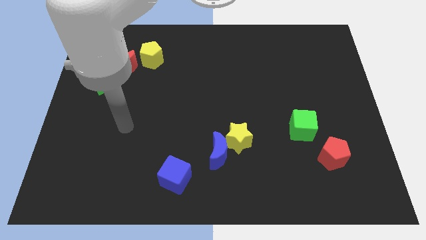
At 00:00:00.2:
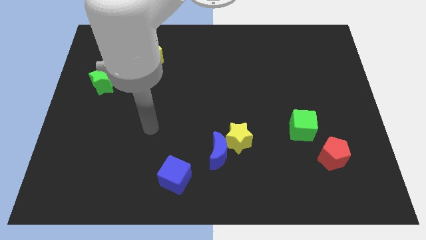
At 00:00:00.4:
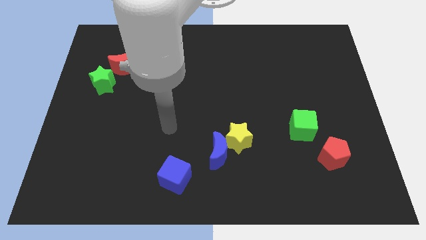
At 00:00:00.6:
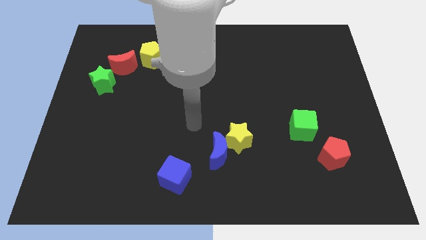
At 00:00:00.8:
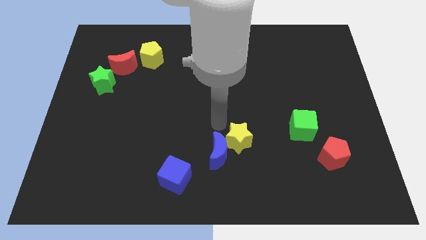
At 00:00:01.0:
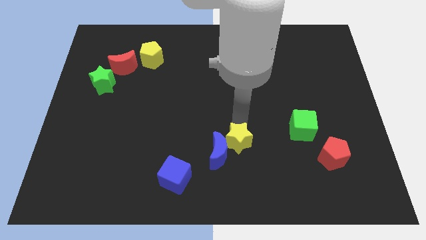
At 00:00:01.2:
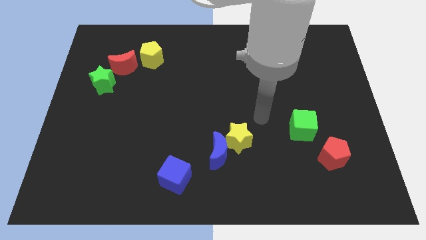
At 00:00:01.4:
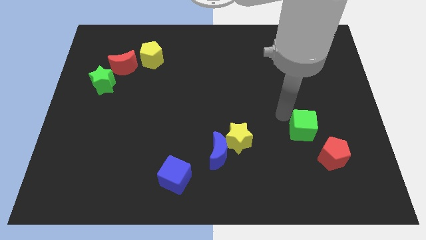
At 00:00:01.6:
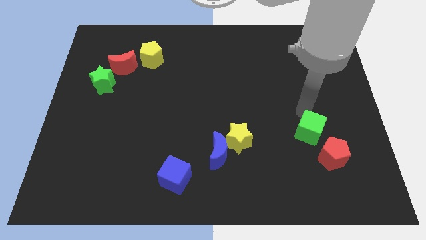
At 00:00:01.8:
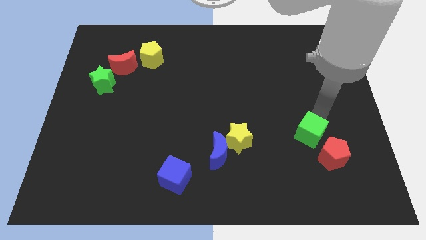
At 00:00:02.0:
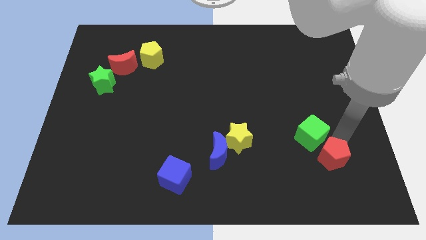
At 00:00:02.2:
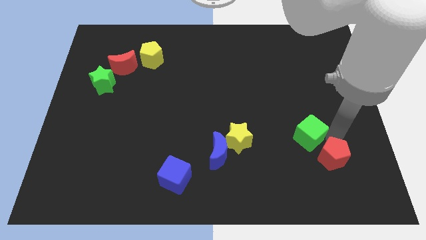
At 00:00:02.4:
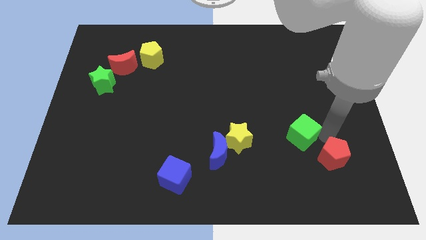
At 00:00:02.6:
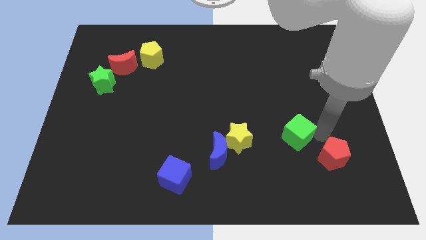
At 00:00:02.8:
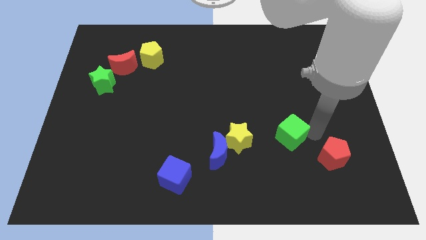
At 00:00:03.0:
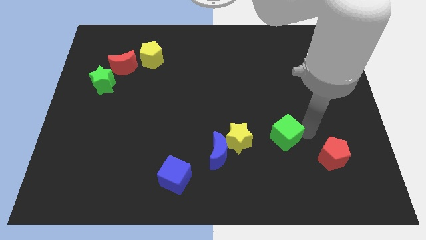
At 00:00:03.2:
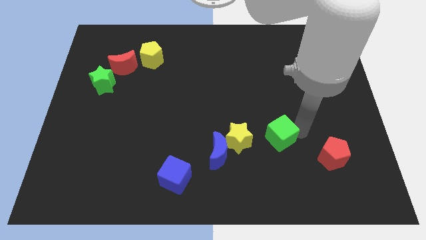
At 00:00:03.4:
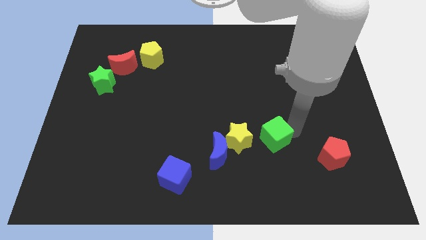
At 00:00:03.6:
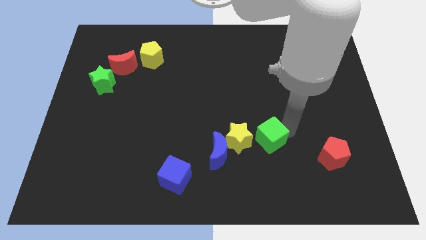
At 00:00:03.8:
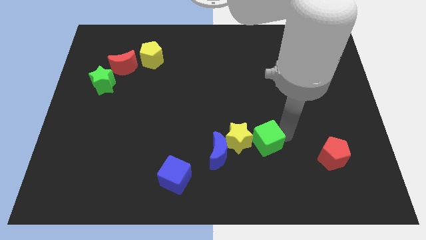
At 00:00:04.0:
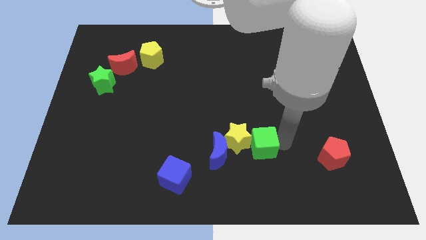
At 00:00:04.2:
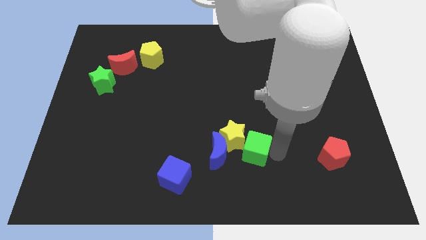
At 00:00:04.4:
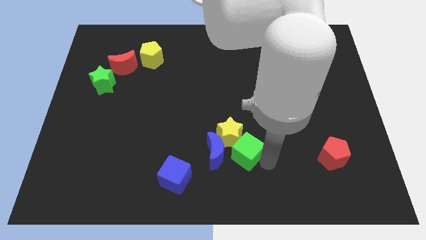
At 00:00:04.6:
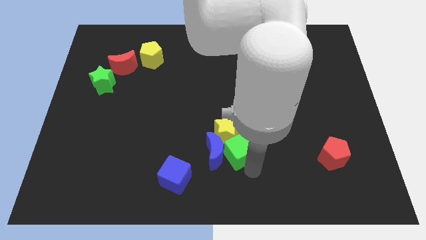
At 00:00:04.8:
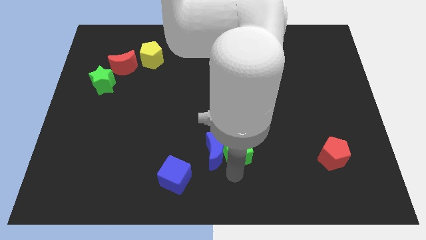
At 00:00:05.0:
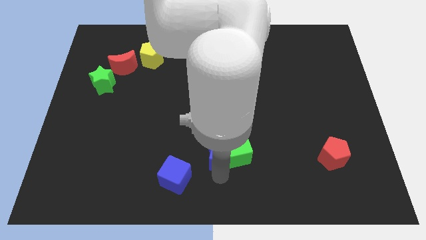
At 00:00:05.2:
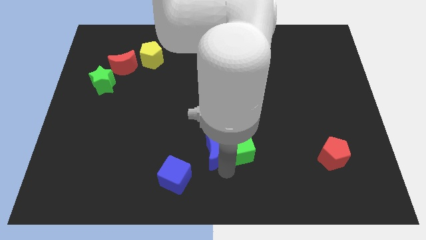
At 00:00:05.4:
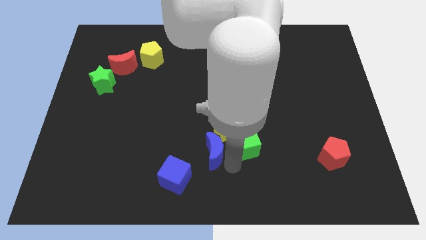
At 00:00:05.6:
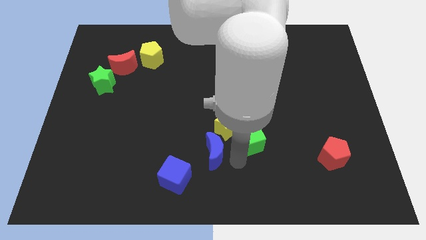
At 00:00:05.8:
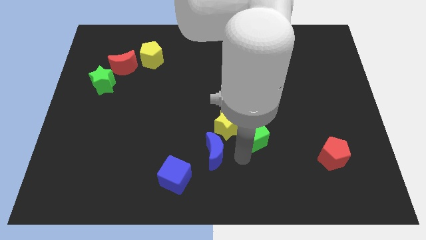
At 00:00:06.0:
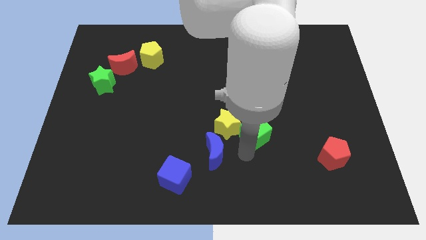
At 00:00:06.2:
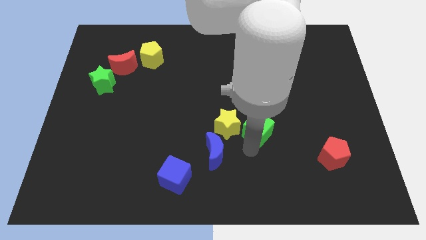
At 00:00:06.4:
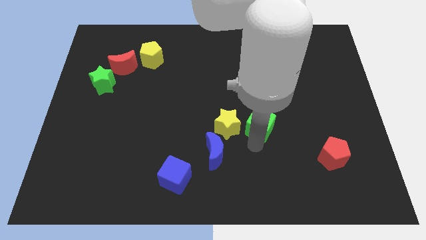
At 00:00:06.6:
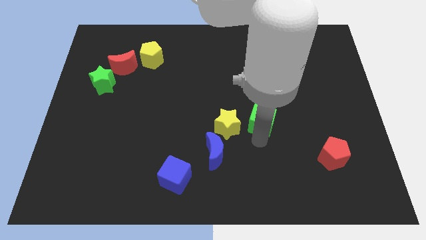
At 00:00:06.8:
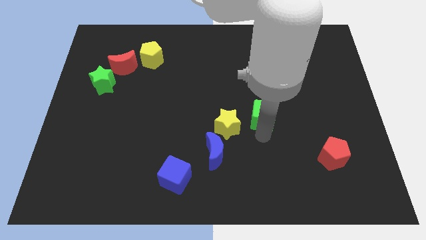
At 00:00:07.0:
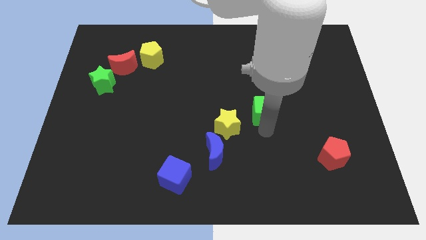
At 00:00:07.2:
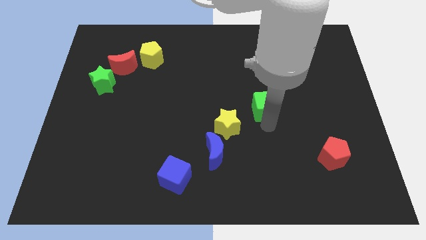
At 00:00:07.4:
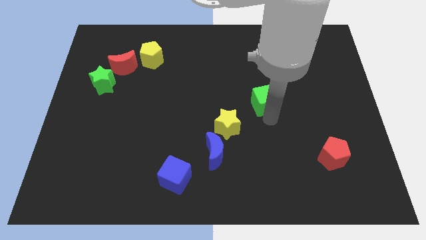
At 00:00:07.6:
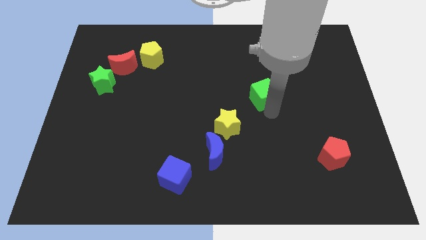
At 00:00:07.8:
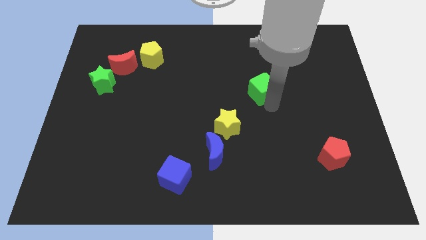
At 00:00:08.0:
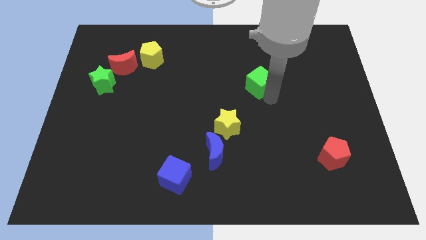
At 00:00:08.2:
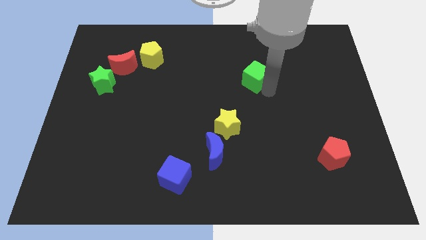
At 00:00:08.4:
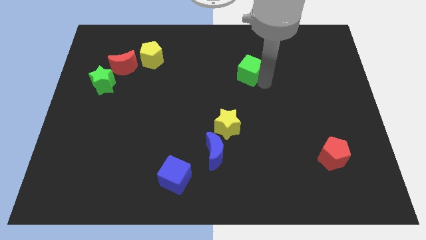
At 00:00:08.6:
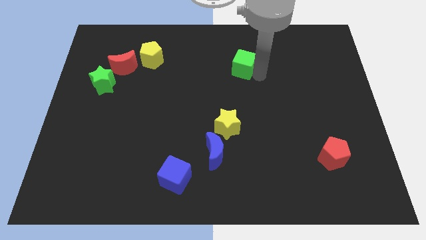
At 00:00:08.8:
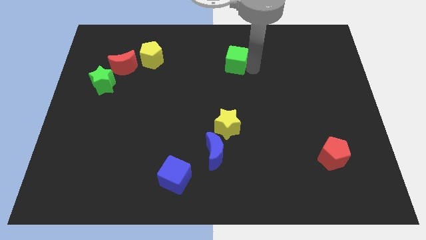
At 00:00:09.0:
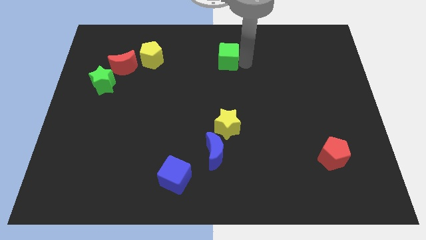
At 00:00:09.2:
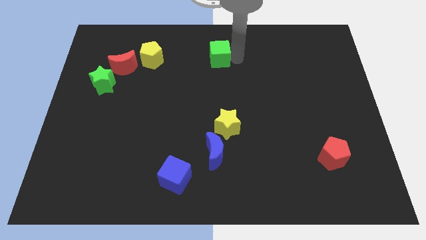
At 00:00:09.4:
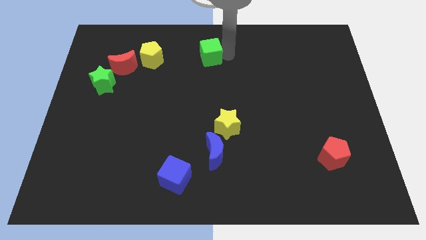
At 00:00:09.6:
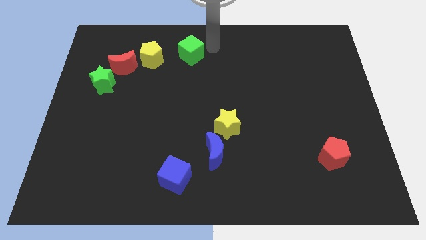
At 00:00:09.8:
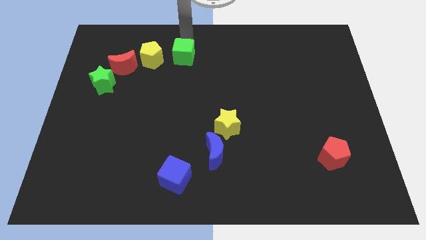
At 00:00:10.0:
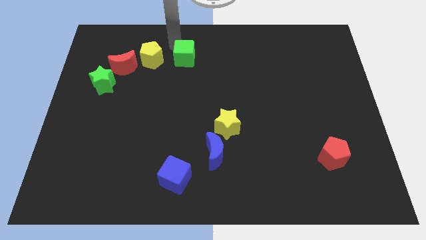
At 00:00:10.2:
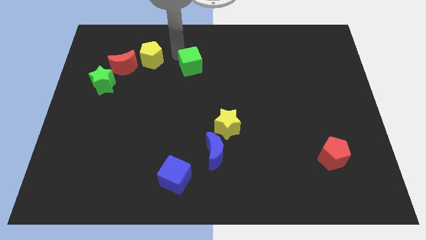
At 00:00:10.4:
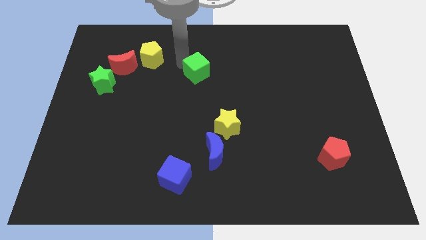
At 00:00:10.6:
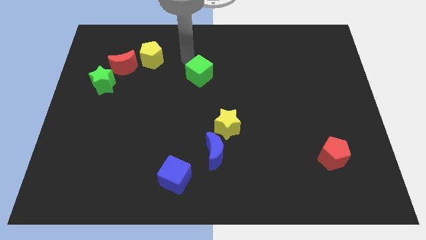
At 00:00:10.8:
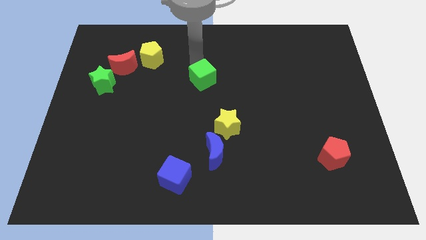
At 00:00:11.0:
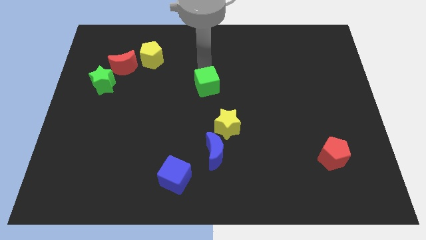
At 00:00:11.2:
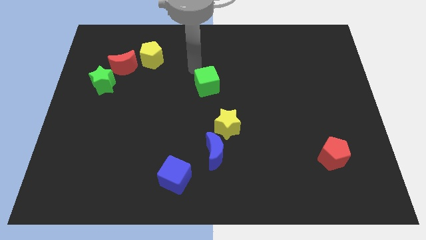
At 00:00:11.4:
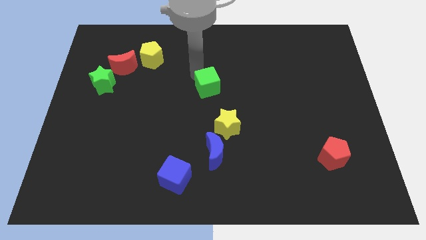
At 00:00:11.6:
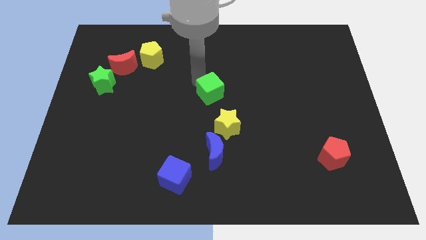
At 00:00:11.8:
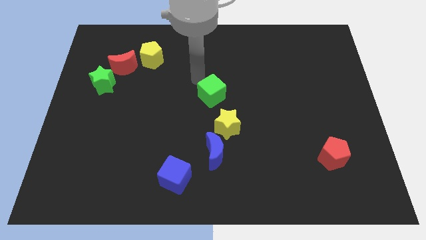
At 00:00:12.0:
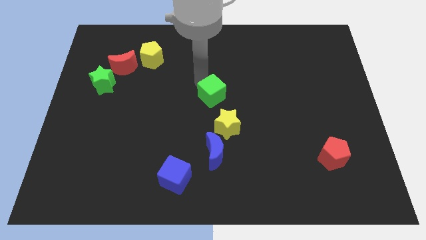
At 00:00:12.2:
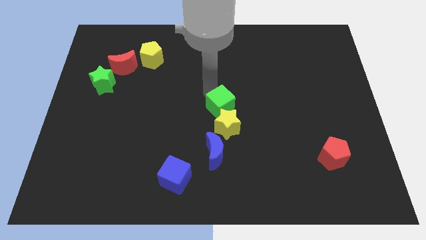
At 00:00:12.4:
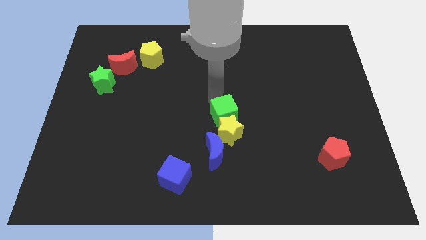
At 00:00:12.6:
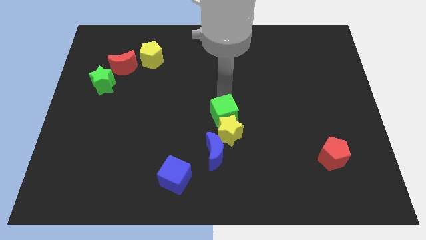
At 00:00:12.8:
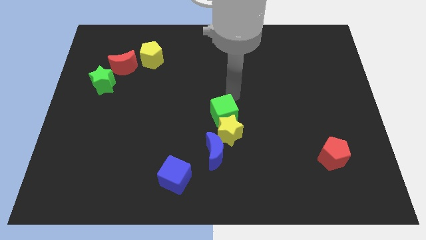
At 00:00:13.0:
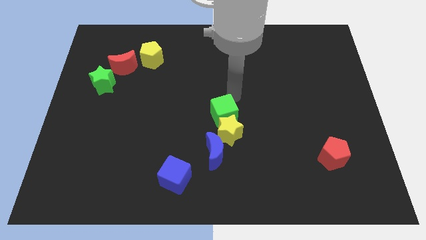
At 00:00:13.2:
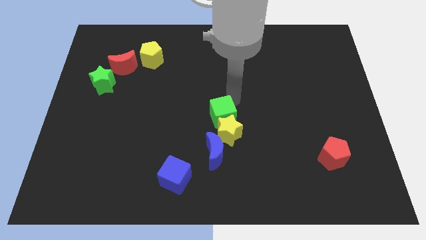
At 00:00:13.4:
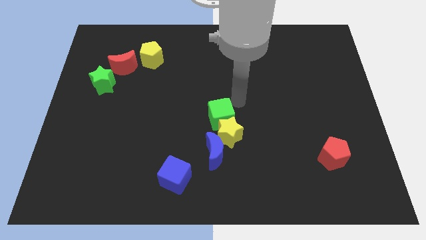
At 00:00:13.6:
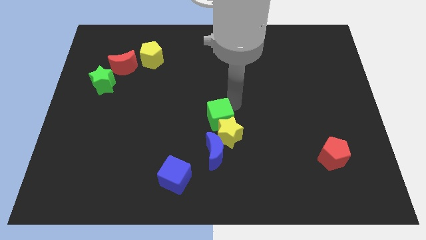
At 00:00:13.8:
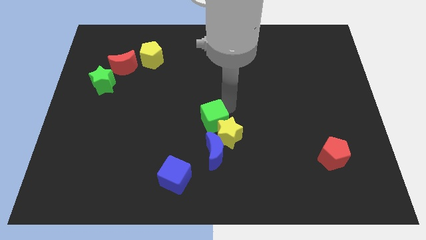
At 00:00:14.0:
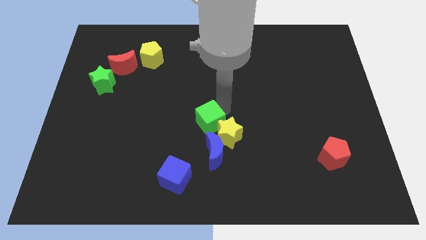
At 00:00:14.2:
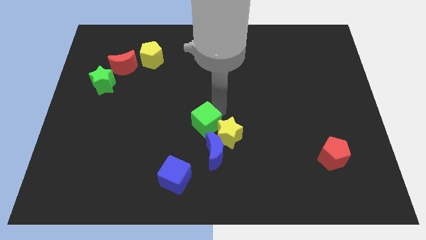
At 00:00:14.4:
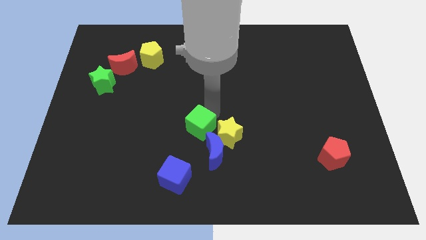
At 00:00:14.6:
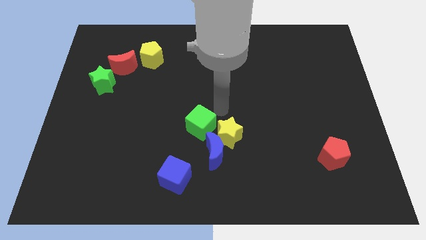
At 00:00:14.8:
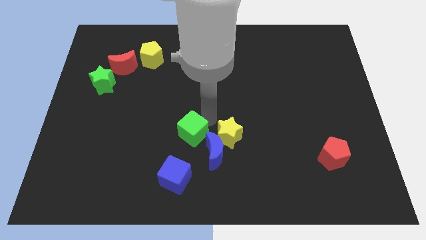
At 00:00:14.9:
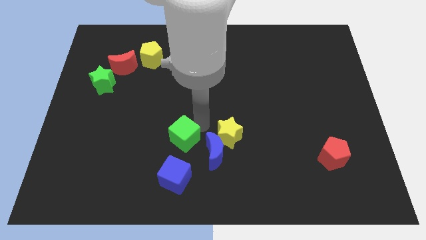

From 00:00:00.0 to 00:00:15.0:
push the green cube just left of the blue moon

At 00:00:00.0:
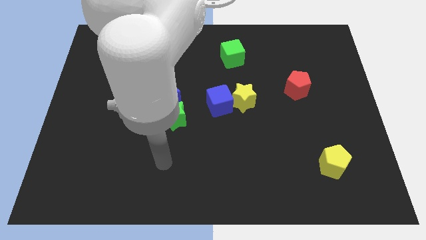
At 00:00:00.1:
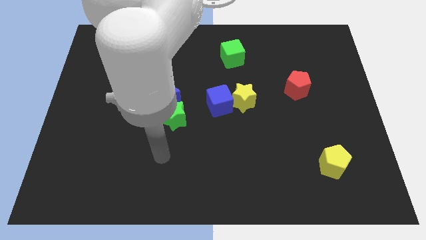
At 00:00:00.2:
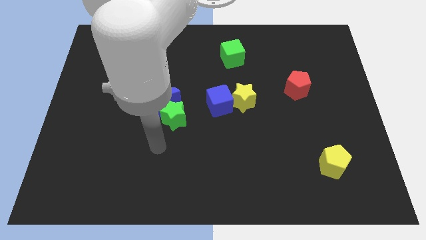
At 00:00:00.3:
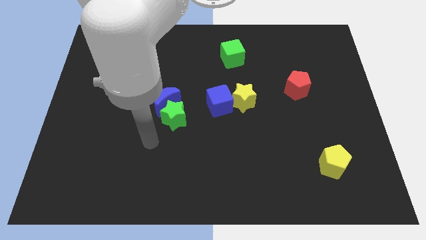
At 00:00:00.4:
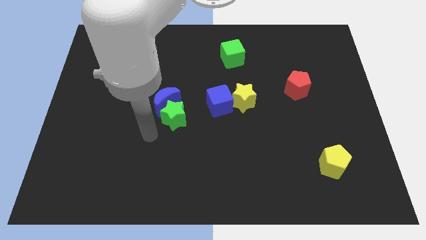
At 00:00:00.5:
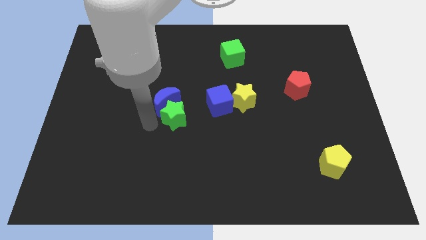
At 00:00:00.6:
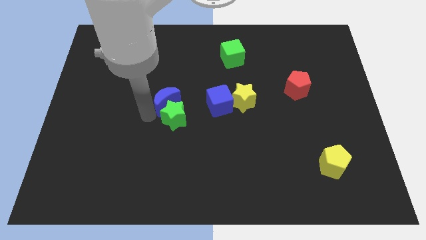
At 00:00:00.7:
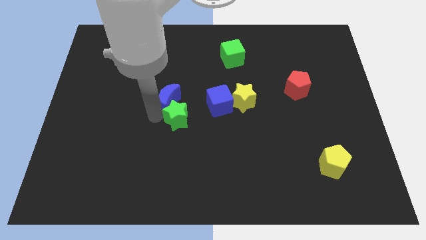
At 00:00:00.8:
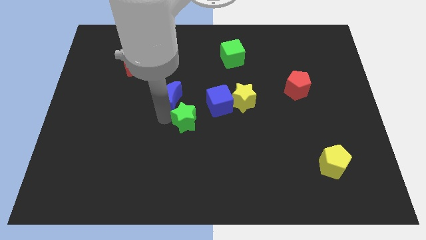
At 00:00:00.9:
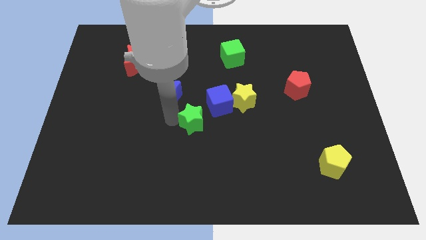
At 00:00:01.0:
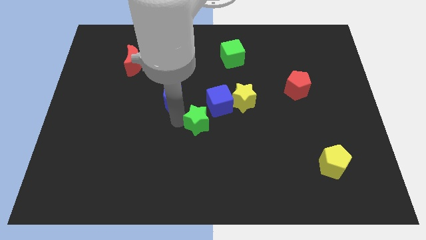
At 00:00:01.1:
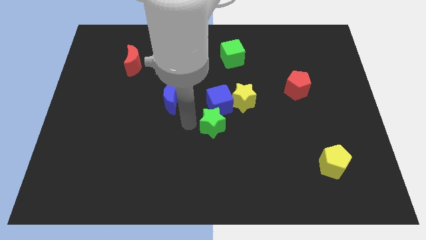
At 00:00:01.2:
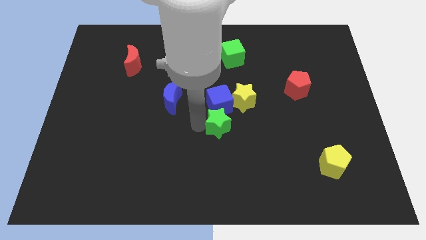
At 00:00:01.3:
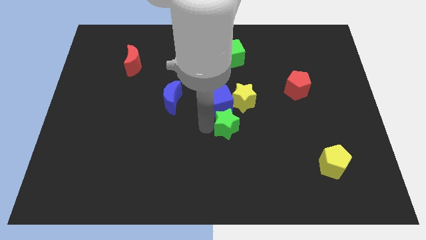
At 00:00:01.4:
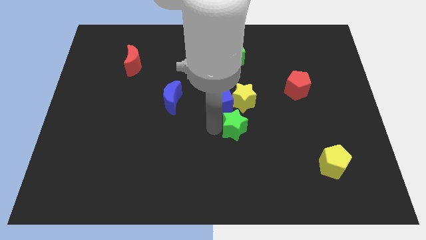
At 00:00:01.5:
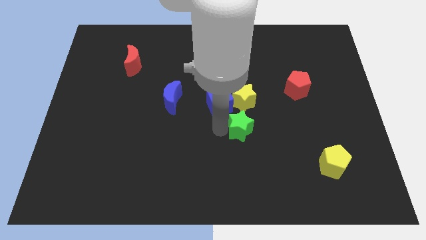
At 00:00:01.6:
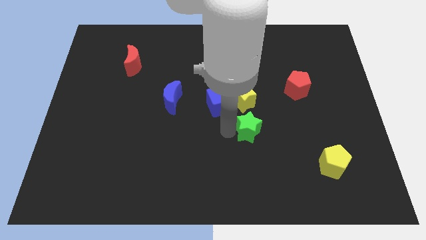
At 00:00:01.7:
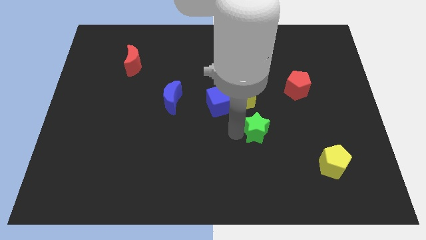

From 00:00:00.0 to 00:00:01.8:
put the green star diagonally down and to the right of the yellow star
